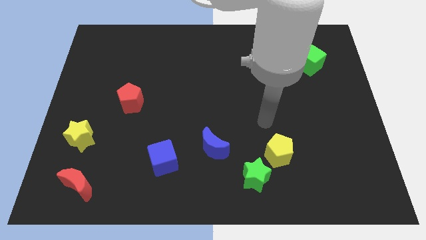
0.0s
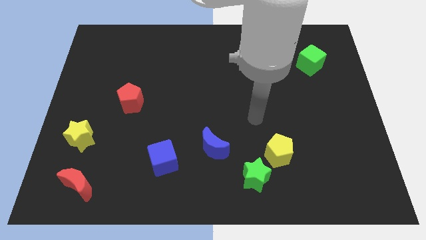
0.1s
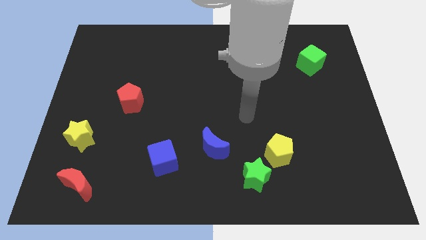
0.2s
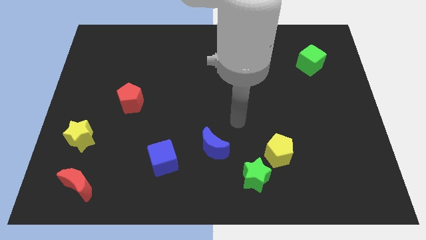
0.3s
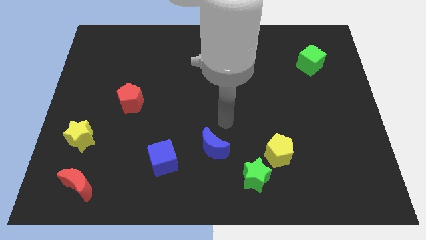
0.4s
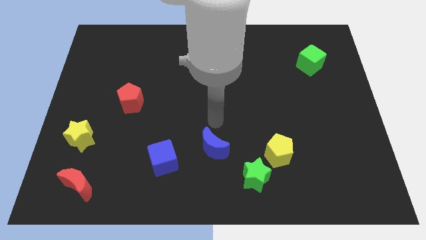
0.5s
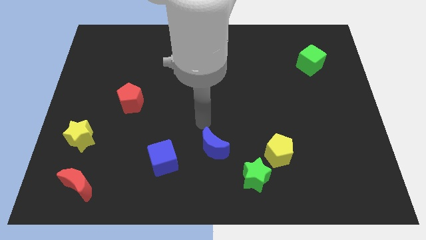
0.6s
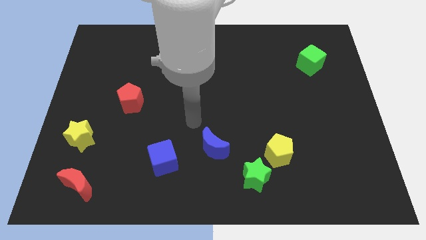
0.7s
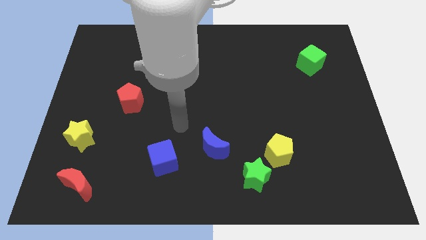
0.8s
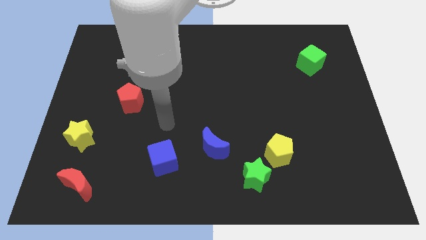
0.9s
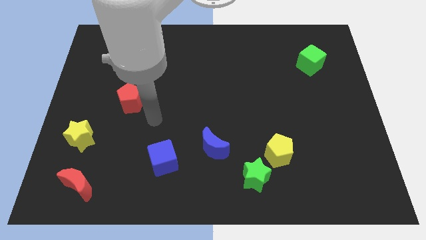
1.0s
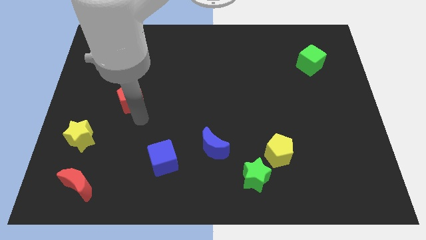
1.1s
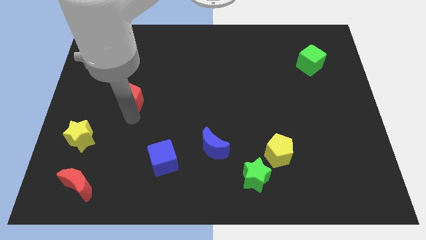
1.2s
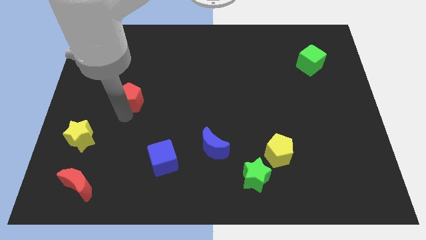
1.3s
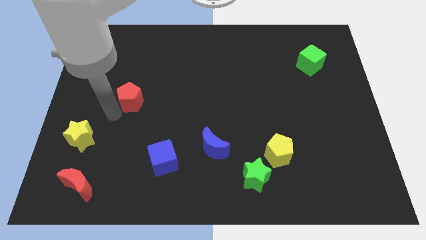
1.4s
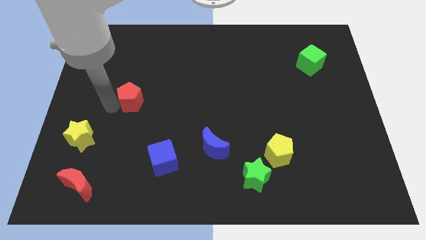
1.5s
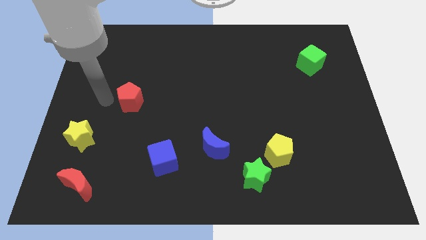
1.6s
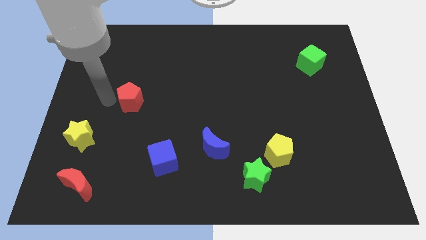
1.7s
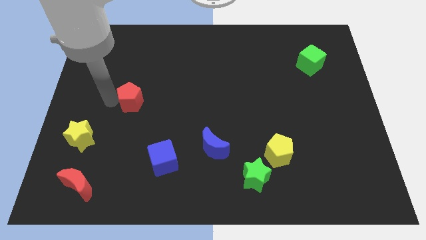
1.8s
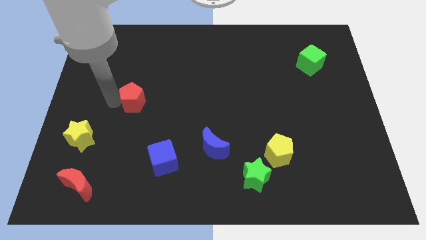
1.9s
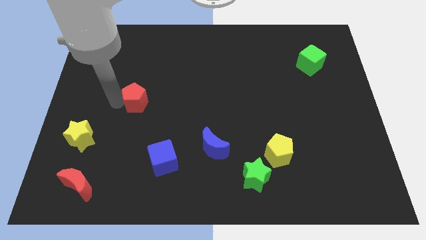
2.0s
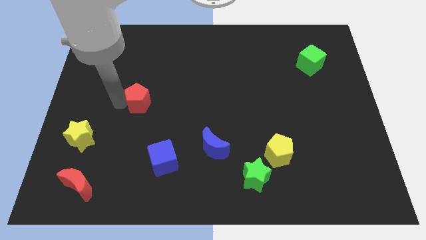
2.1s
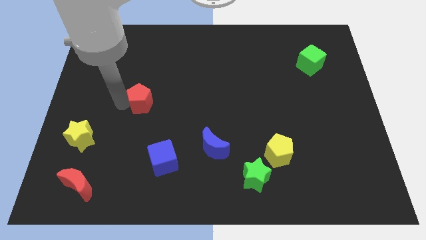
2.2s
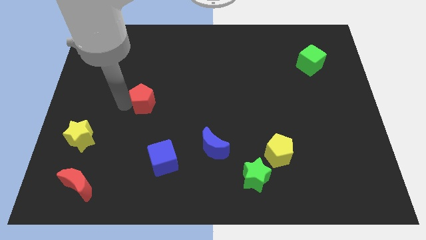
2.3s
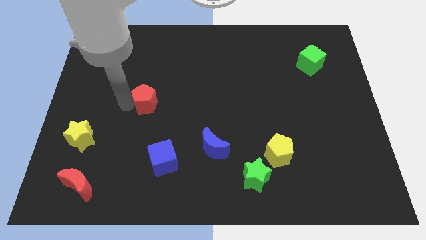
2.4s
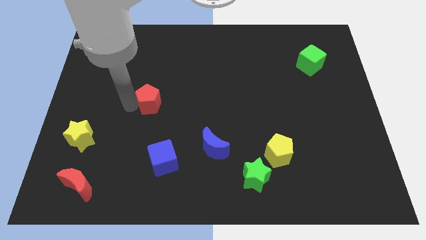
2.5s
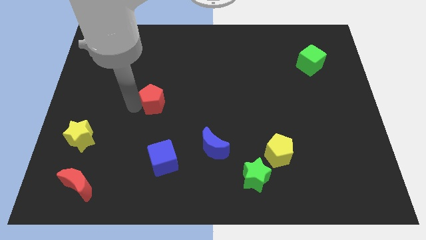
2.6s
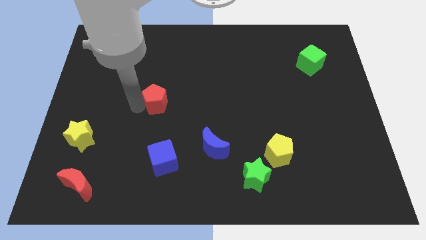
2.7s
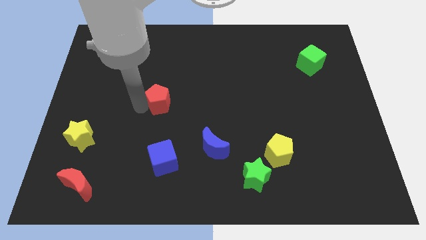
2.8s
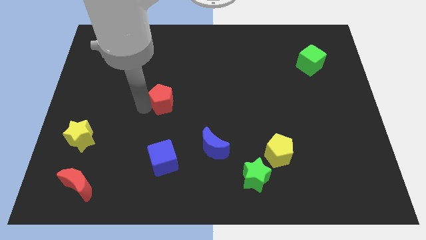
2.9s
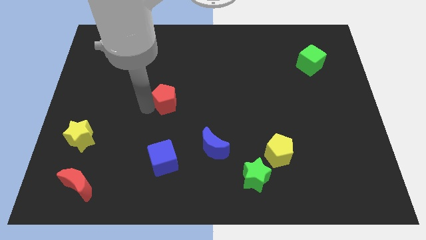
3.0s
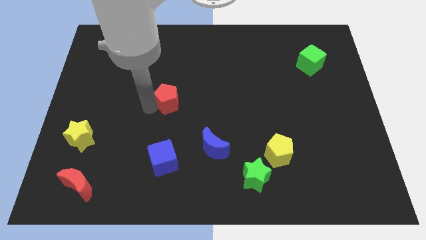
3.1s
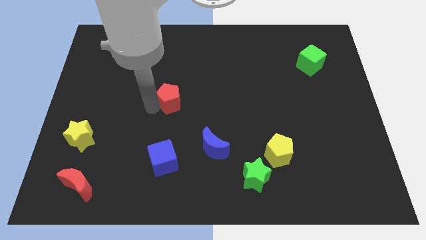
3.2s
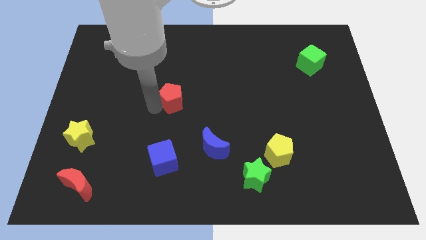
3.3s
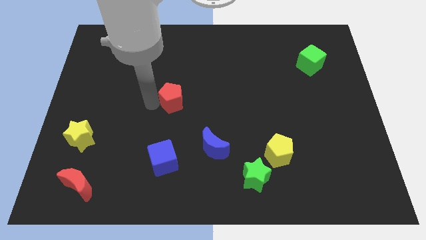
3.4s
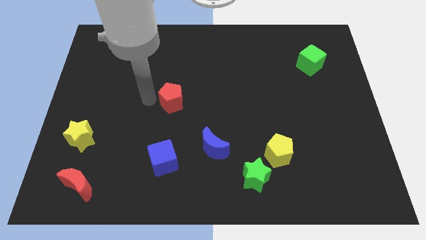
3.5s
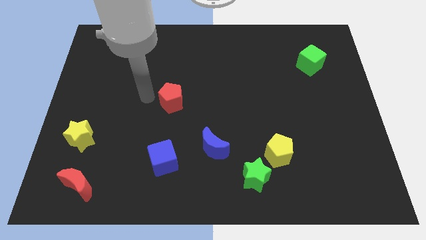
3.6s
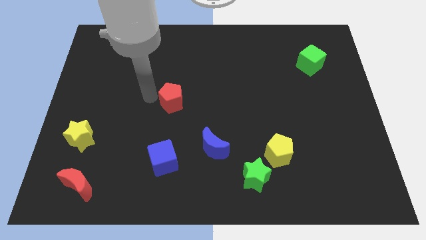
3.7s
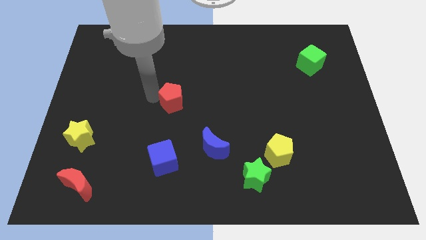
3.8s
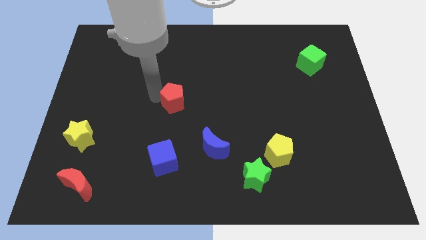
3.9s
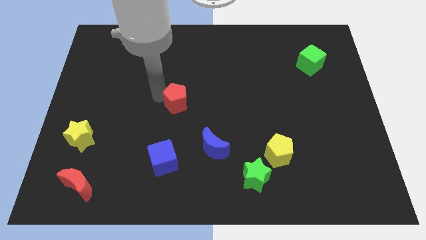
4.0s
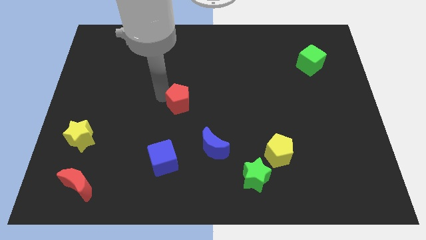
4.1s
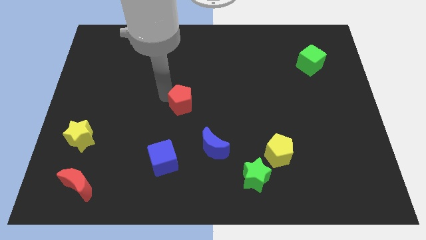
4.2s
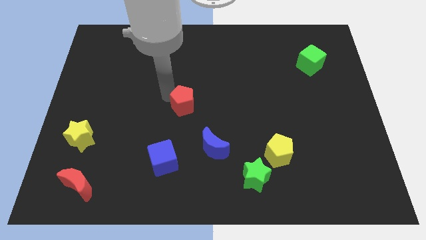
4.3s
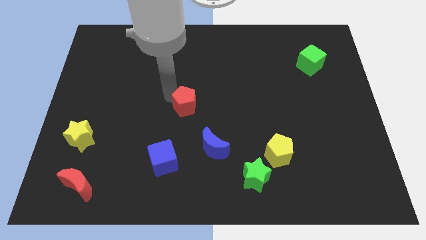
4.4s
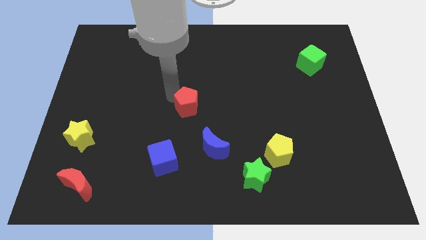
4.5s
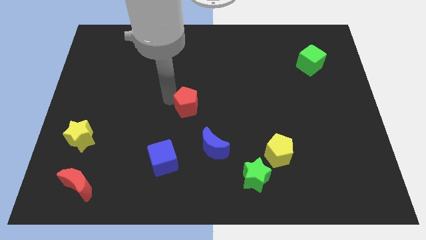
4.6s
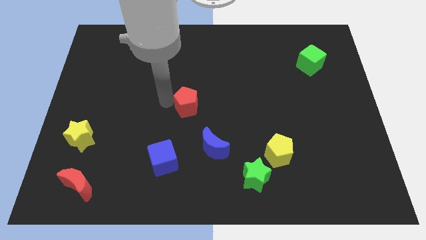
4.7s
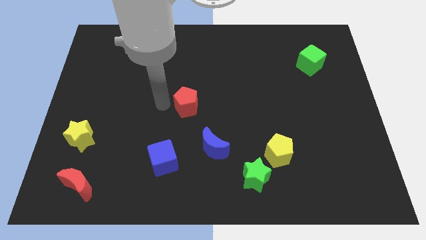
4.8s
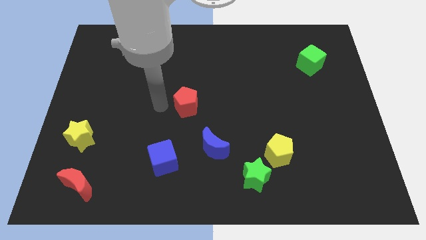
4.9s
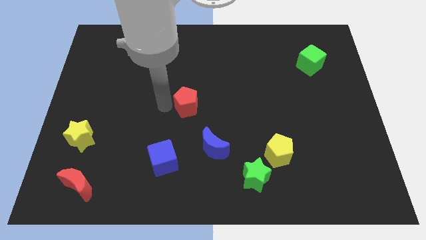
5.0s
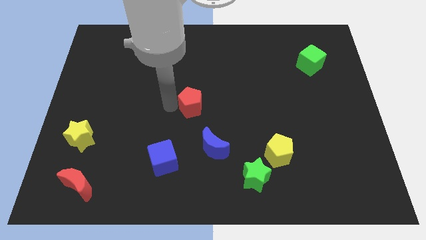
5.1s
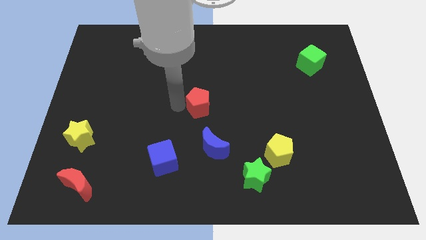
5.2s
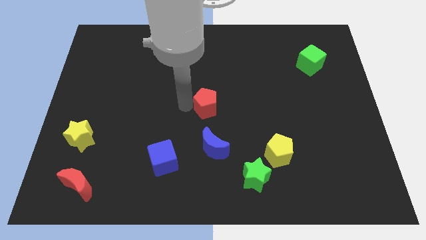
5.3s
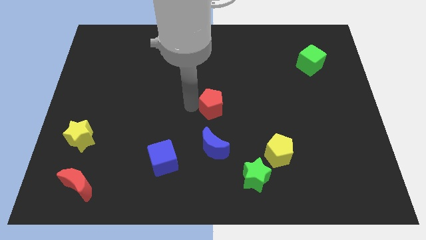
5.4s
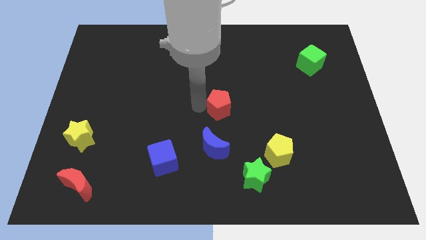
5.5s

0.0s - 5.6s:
push the red pentagon to the right

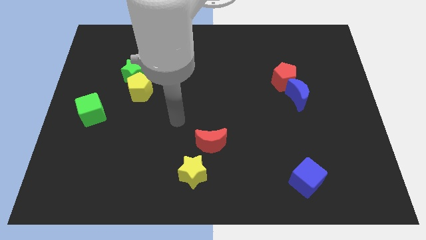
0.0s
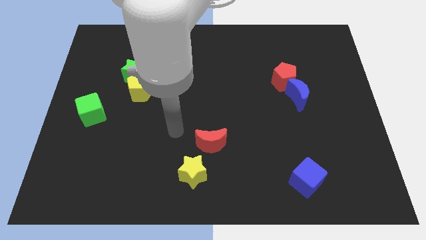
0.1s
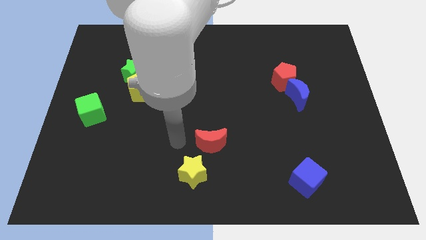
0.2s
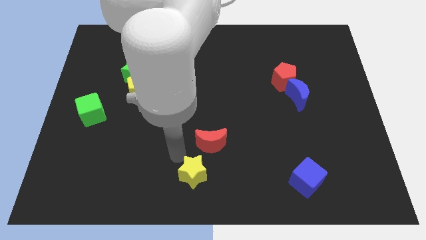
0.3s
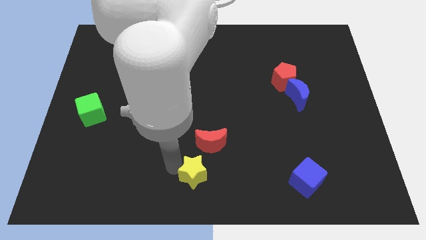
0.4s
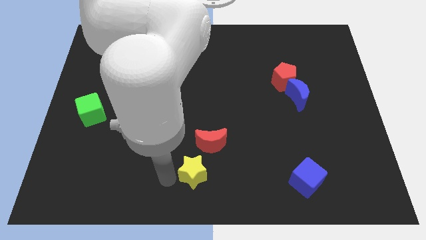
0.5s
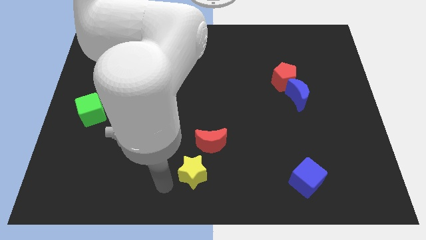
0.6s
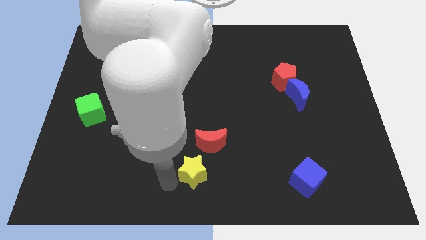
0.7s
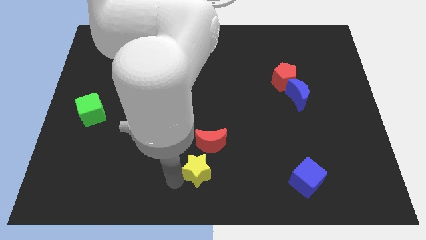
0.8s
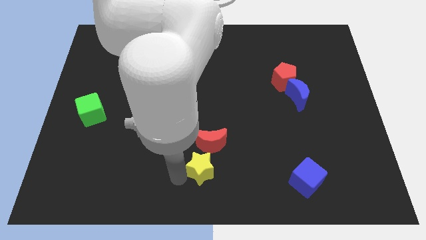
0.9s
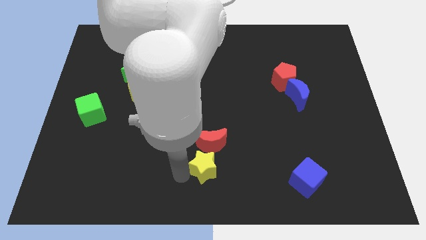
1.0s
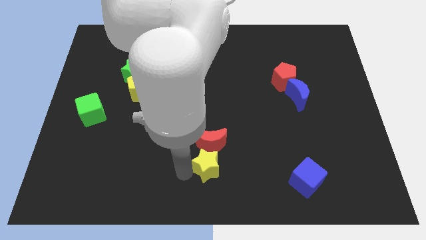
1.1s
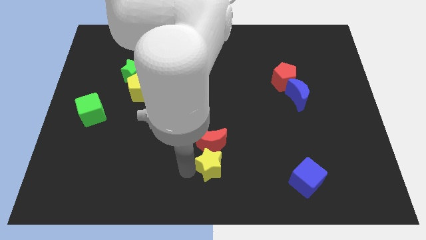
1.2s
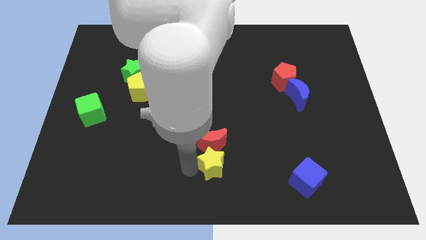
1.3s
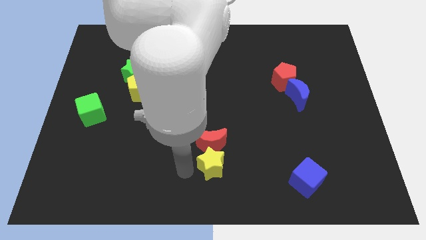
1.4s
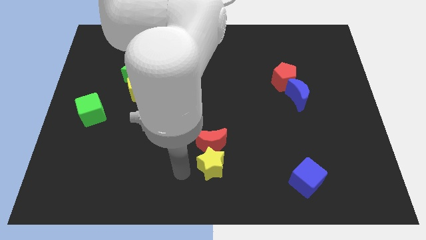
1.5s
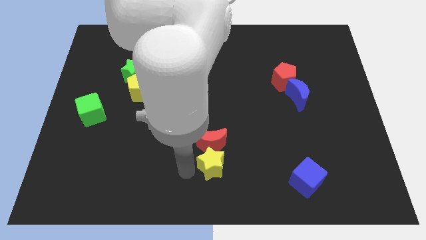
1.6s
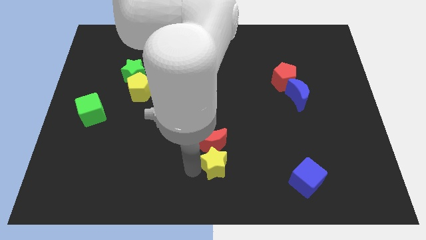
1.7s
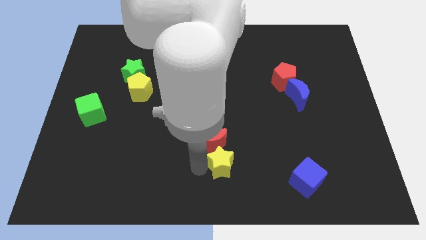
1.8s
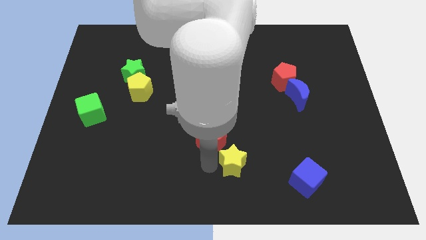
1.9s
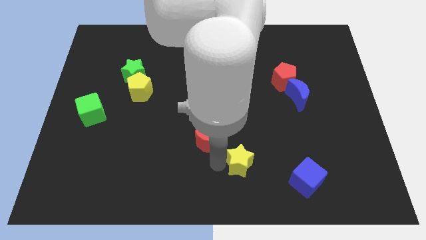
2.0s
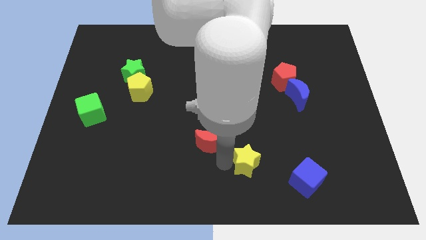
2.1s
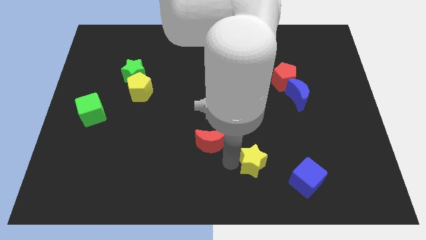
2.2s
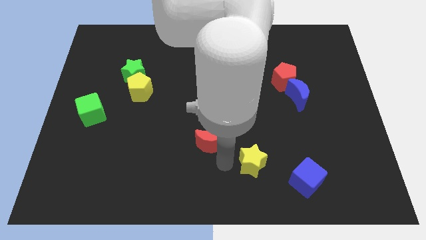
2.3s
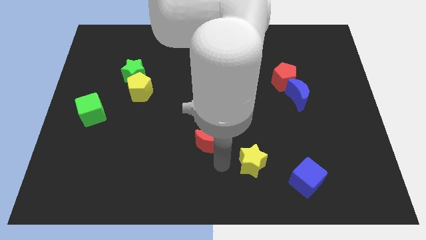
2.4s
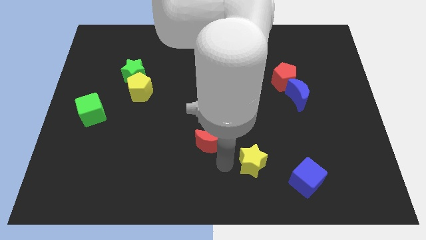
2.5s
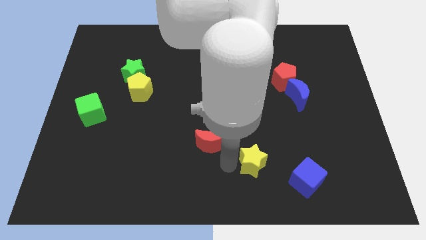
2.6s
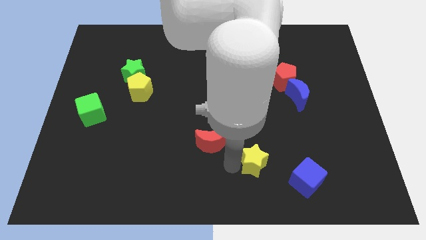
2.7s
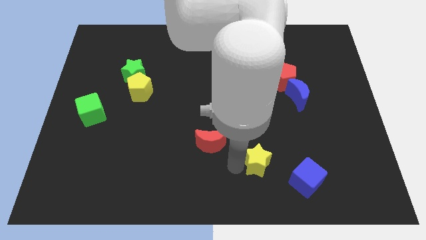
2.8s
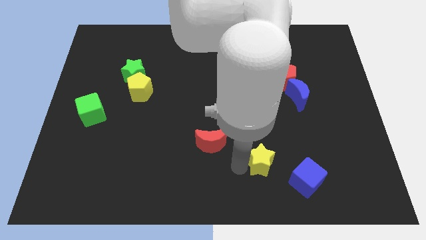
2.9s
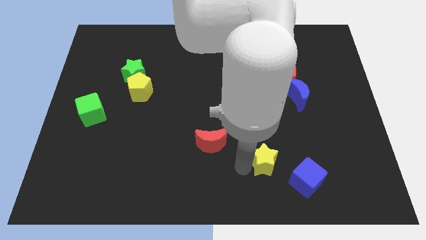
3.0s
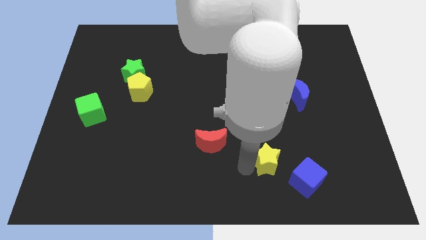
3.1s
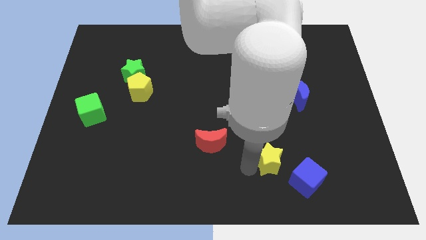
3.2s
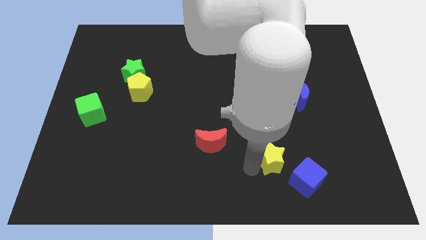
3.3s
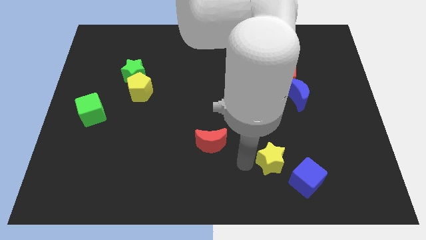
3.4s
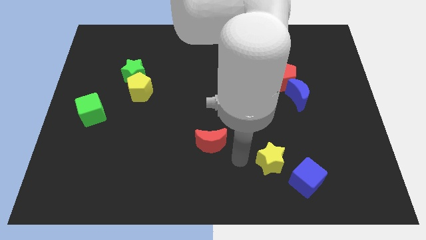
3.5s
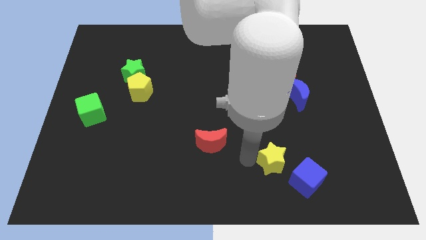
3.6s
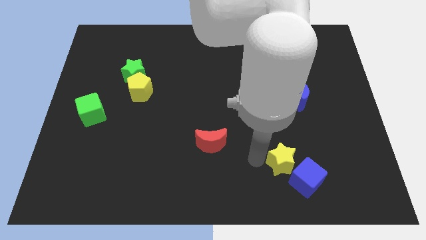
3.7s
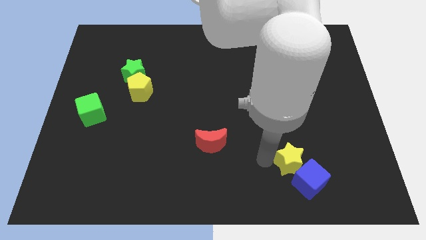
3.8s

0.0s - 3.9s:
move the yellow star to the right
